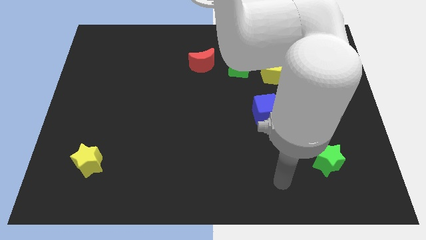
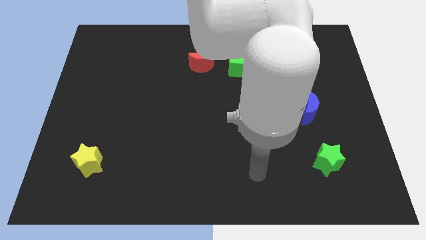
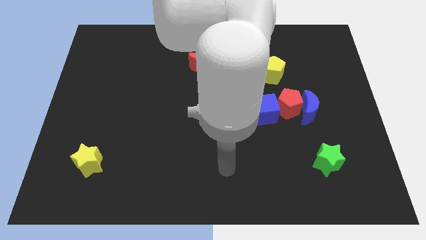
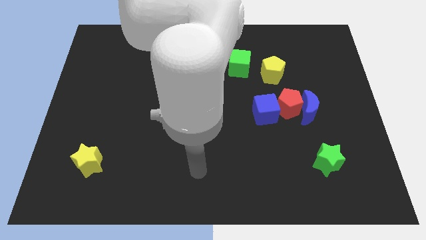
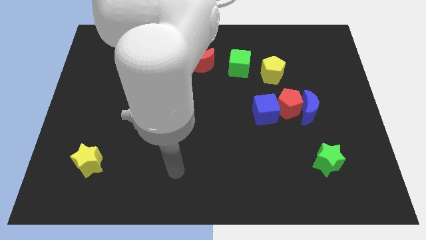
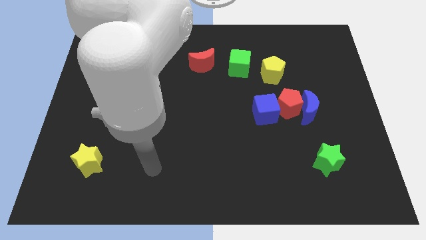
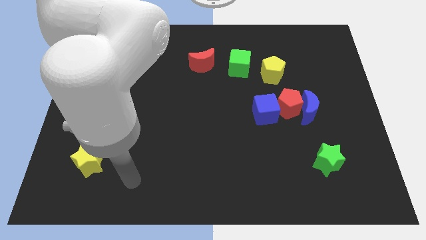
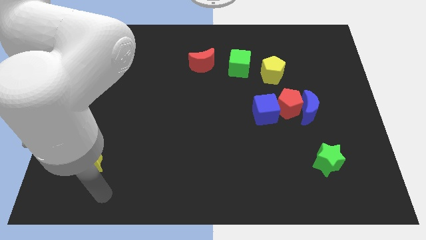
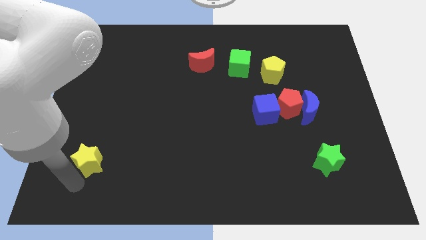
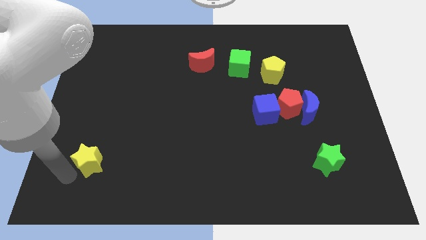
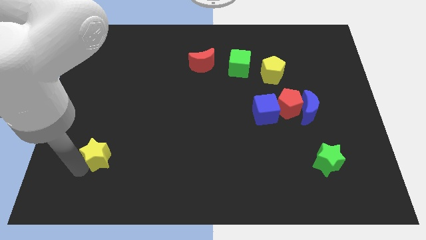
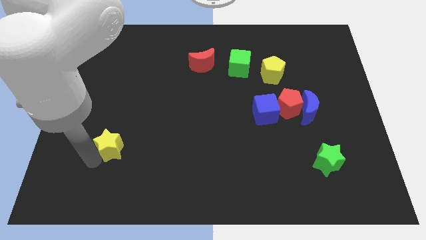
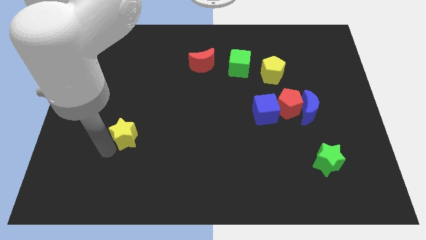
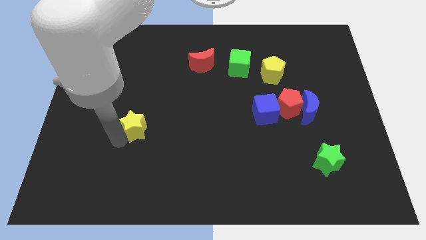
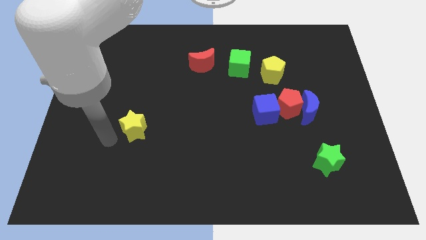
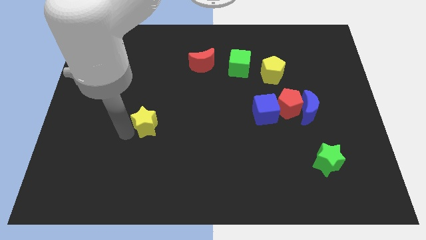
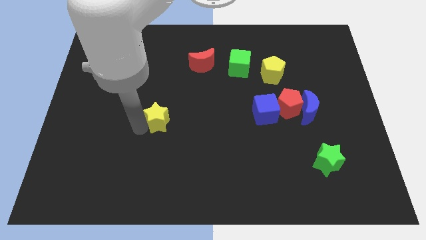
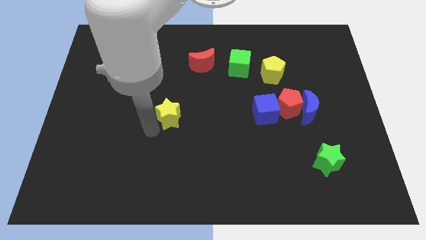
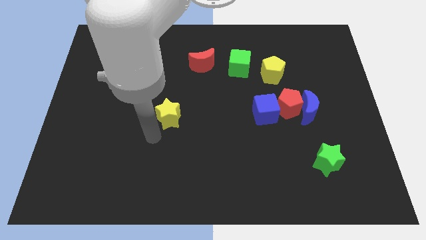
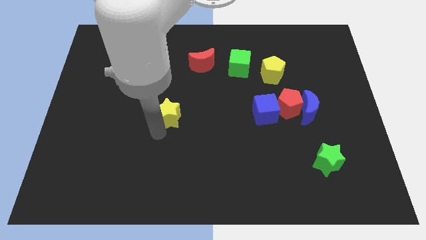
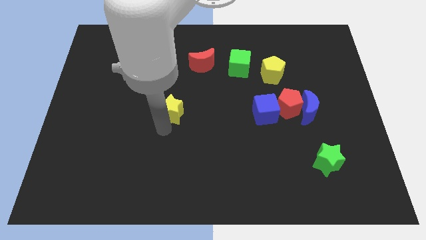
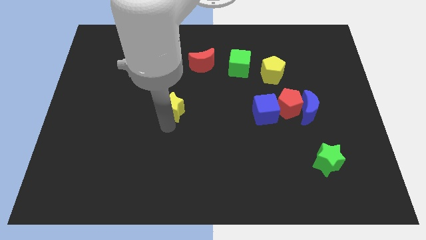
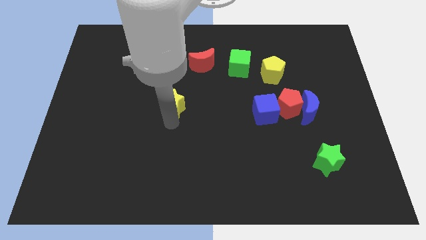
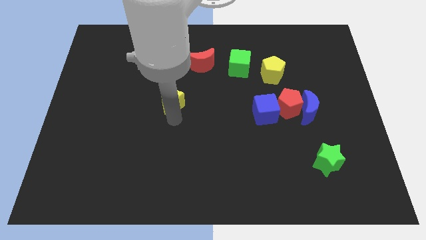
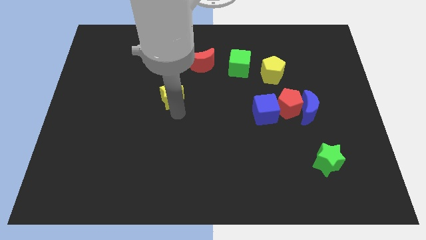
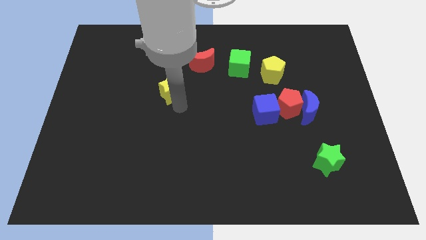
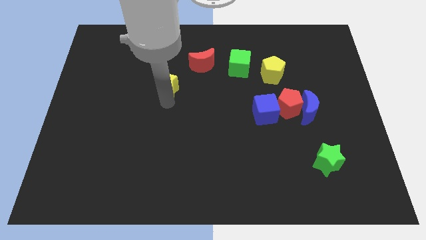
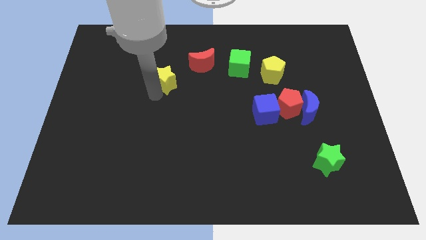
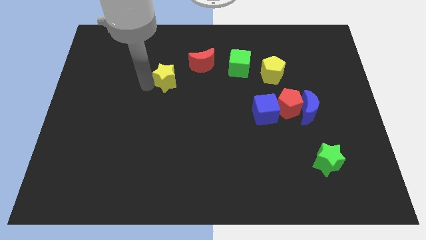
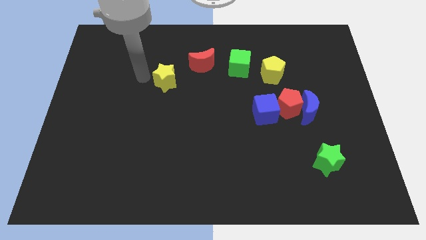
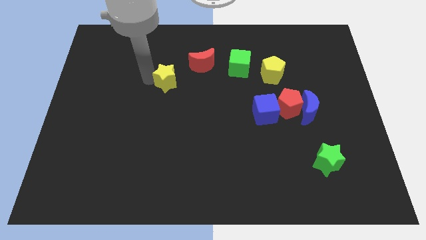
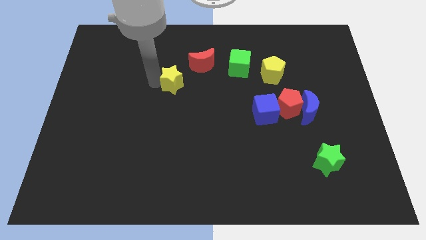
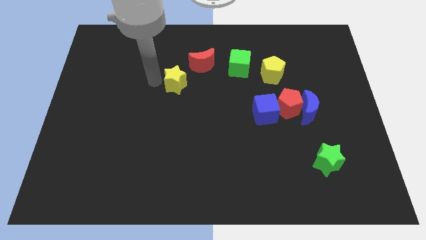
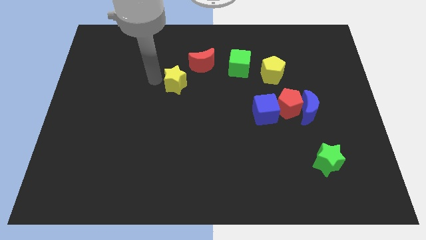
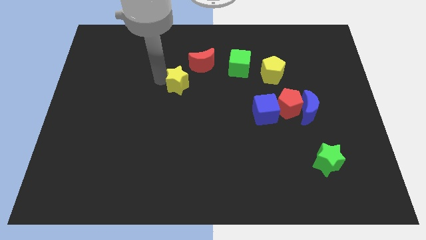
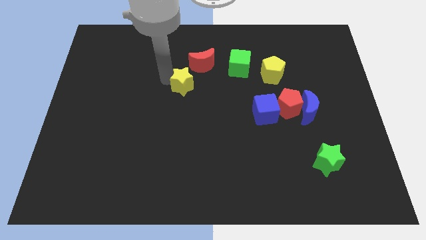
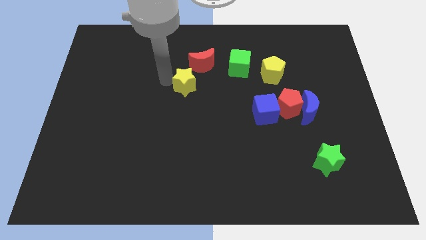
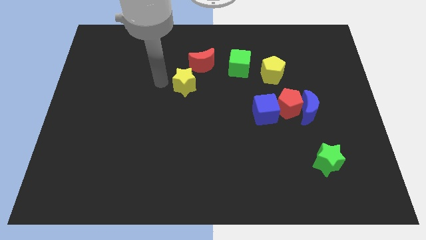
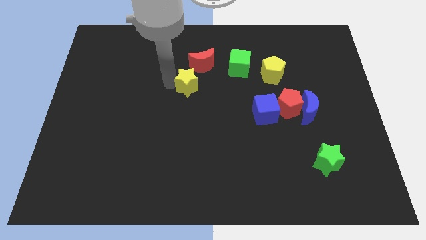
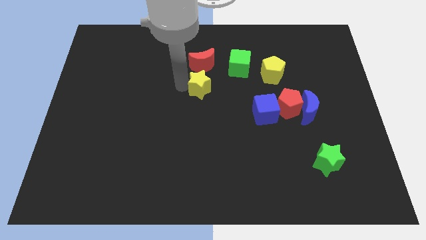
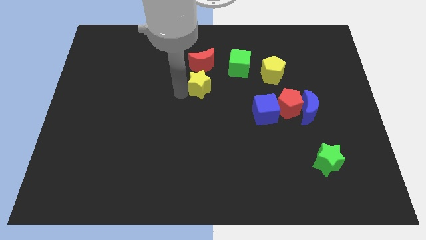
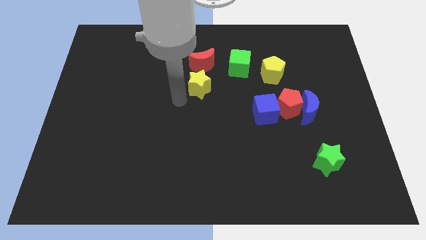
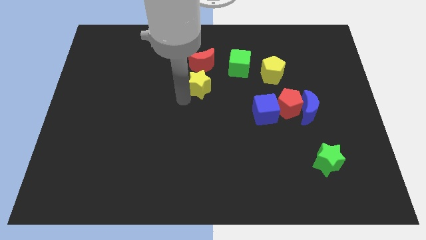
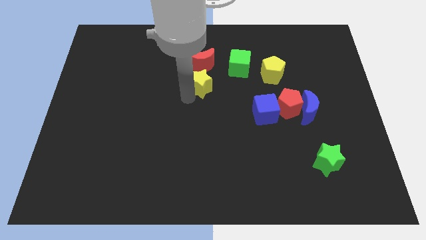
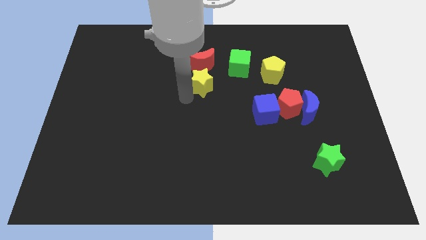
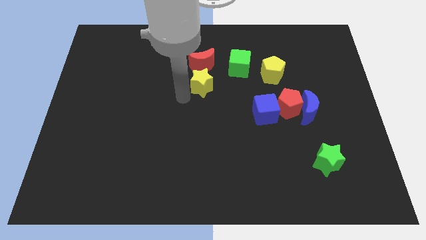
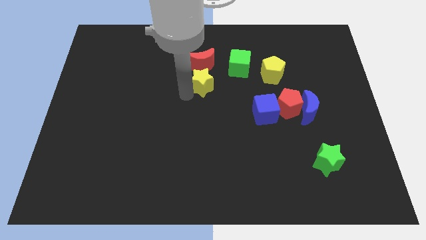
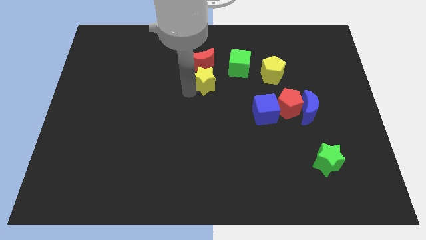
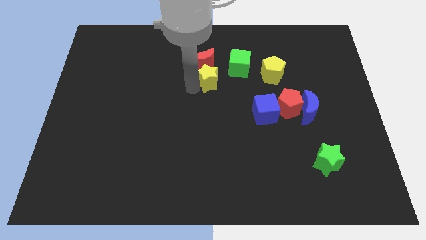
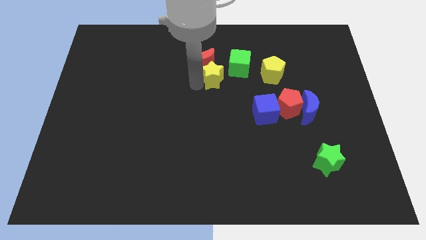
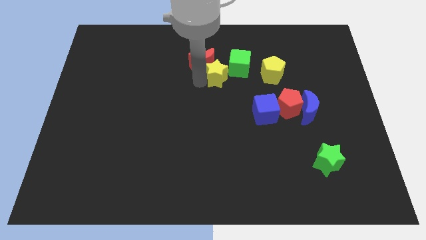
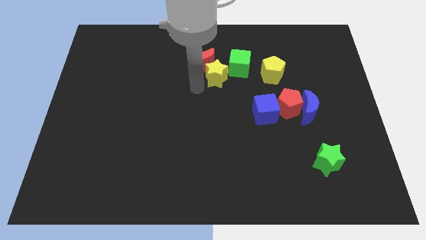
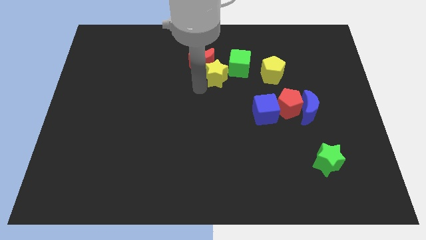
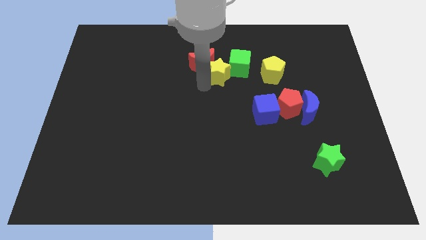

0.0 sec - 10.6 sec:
put the yellow star next to the green cube
